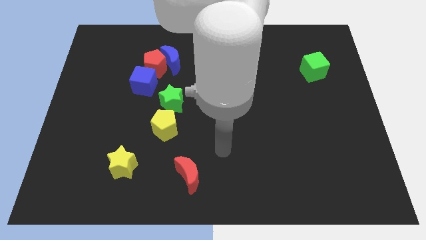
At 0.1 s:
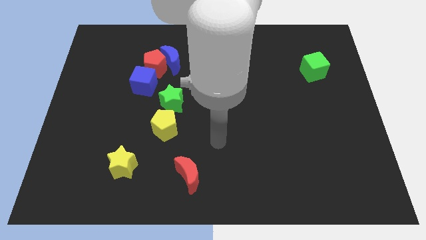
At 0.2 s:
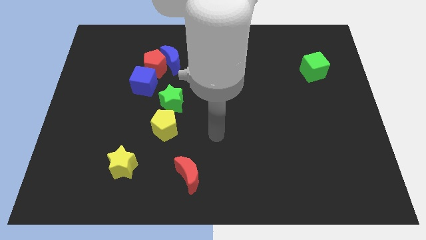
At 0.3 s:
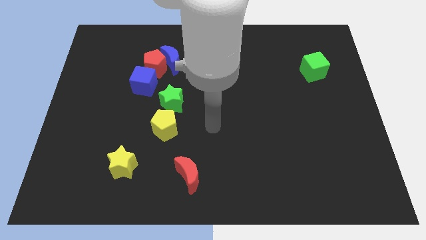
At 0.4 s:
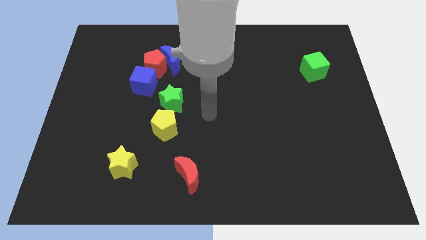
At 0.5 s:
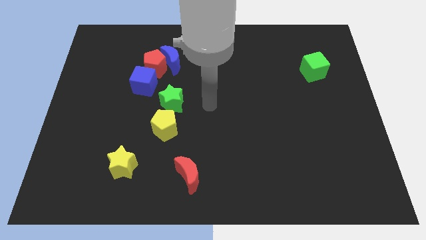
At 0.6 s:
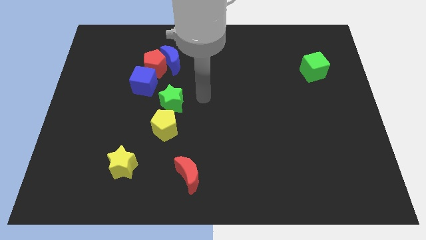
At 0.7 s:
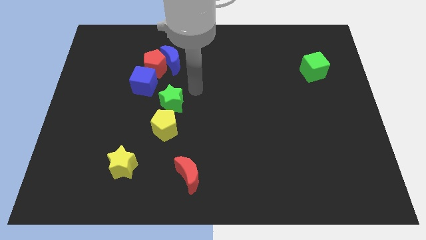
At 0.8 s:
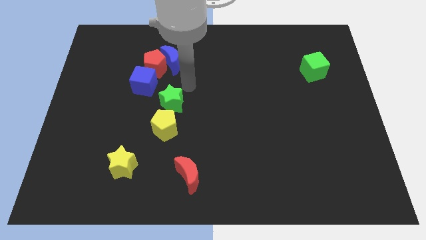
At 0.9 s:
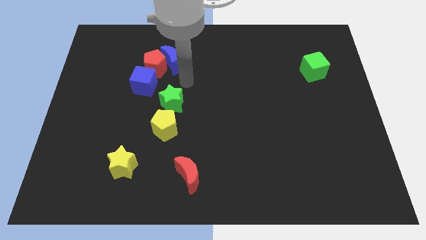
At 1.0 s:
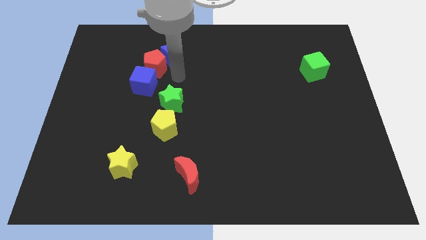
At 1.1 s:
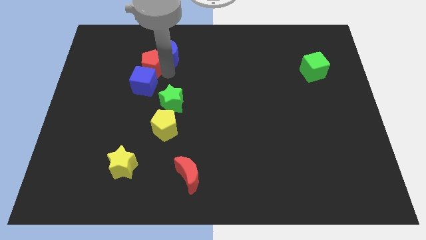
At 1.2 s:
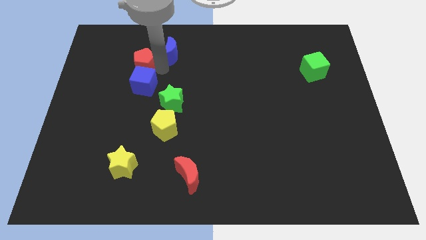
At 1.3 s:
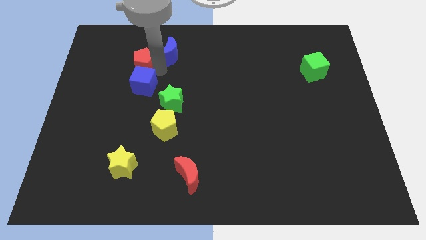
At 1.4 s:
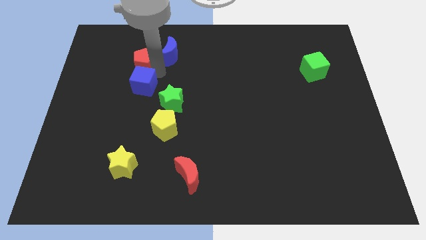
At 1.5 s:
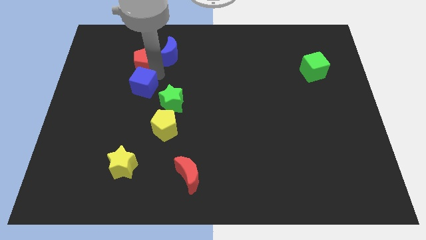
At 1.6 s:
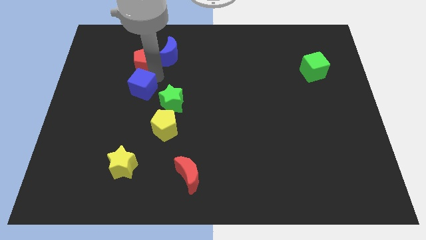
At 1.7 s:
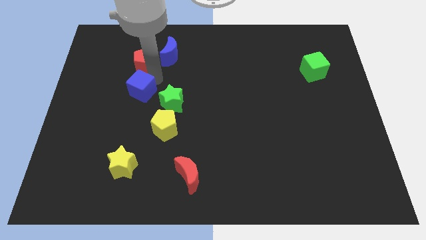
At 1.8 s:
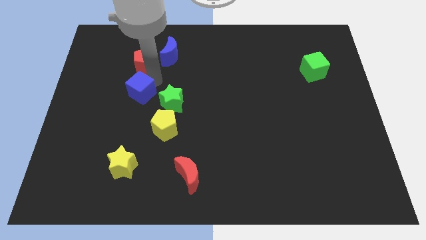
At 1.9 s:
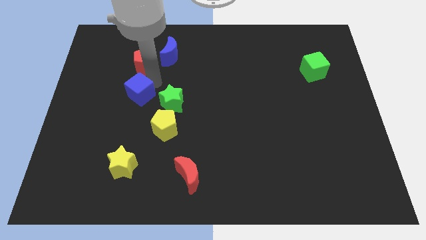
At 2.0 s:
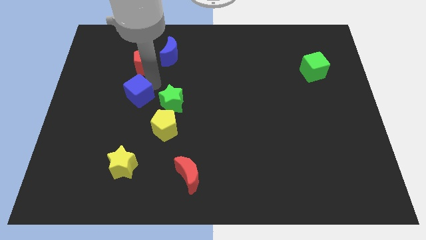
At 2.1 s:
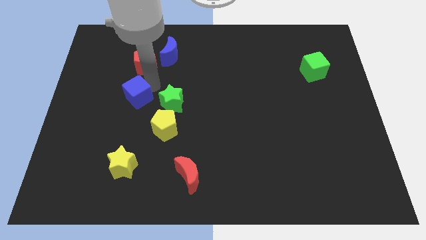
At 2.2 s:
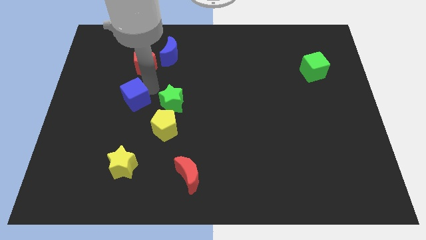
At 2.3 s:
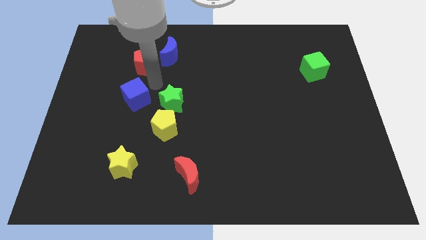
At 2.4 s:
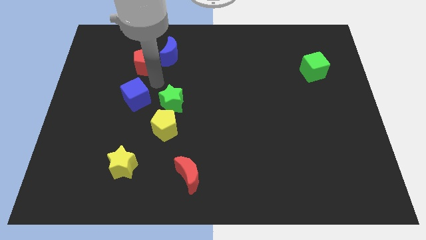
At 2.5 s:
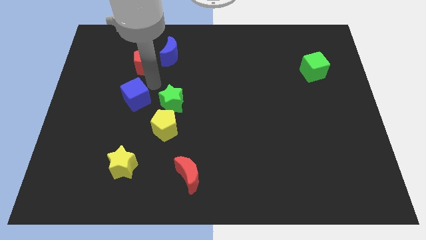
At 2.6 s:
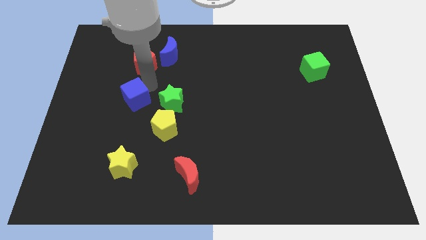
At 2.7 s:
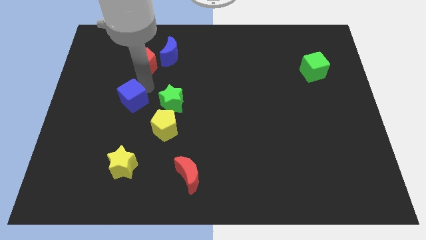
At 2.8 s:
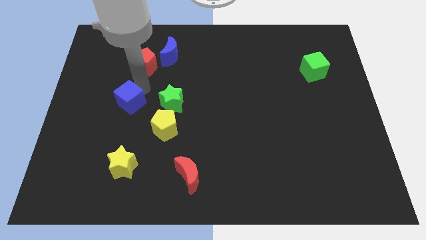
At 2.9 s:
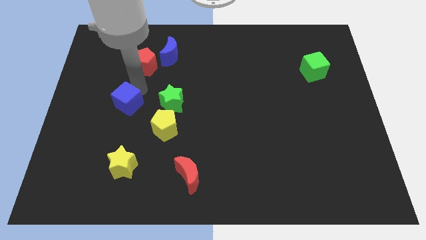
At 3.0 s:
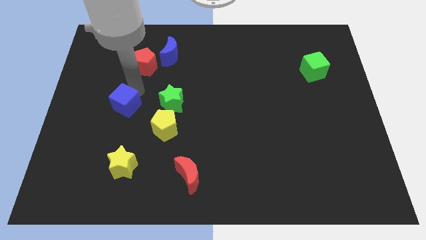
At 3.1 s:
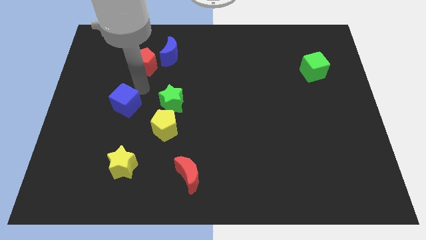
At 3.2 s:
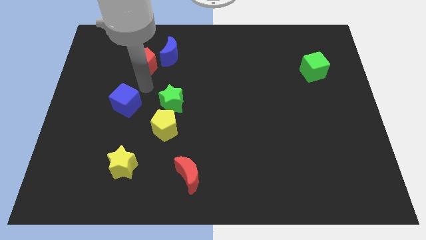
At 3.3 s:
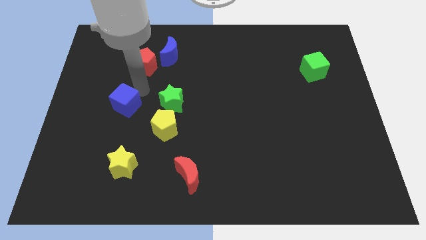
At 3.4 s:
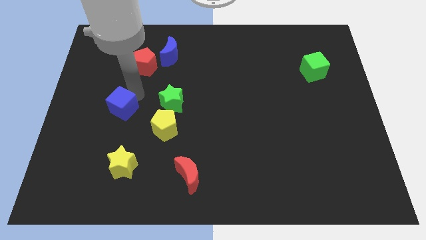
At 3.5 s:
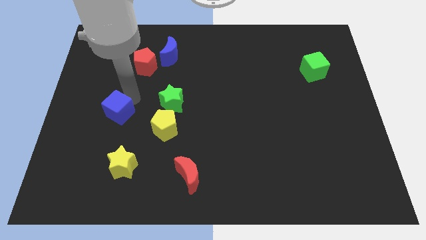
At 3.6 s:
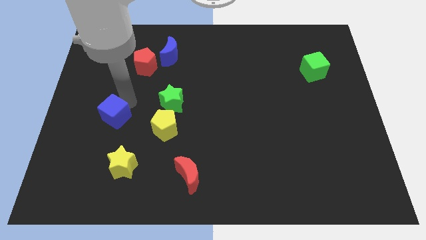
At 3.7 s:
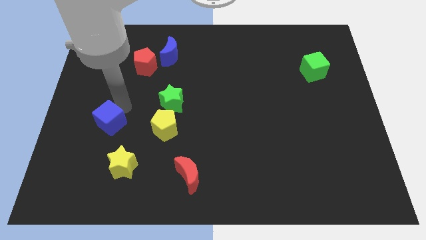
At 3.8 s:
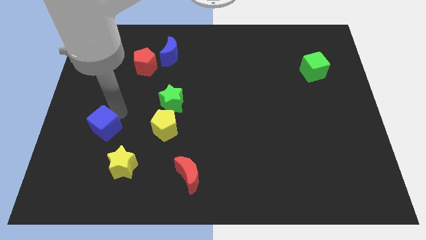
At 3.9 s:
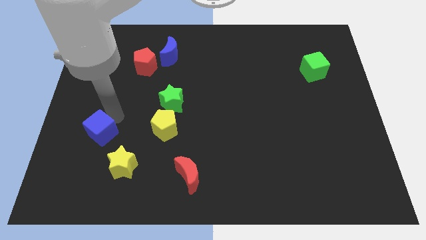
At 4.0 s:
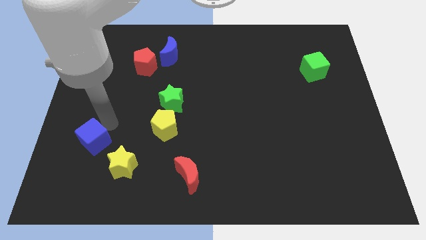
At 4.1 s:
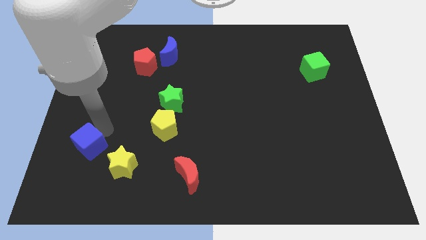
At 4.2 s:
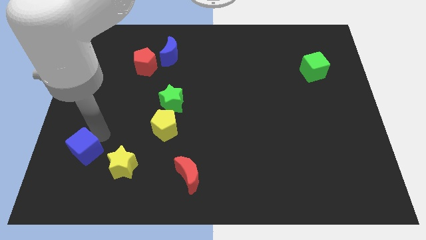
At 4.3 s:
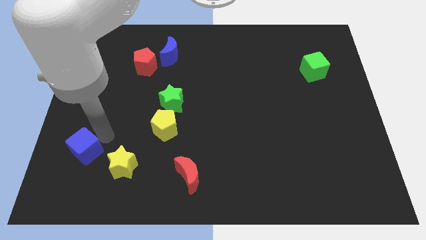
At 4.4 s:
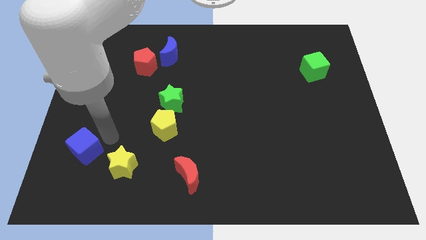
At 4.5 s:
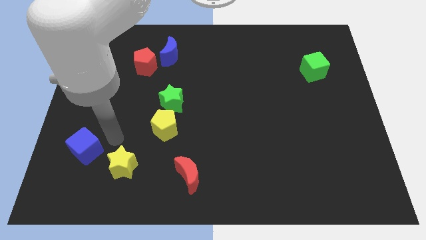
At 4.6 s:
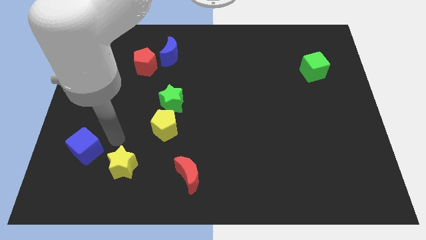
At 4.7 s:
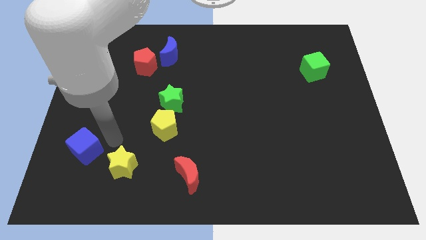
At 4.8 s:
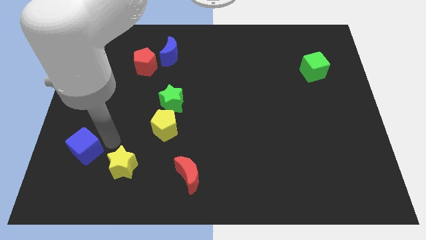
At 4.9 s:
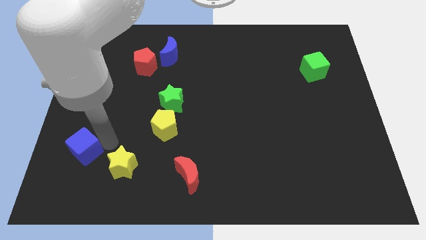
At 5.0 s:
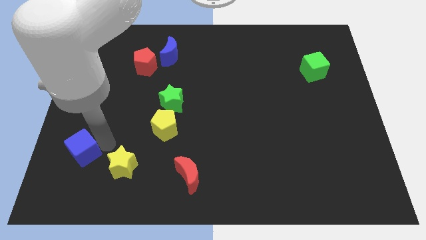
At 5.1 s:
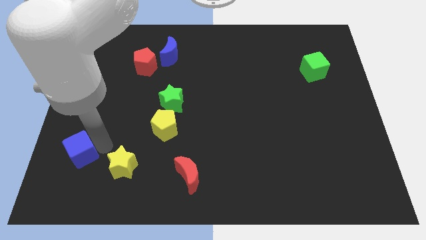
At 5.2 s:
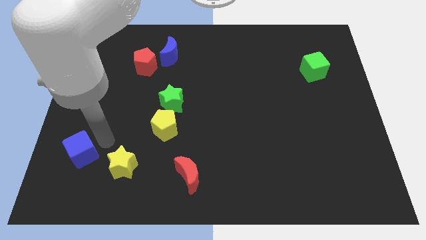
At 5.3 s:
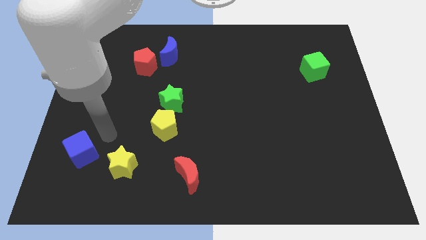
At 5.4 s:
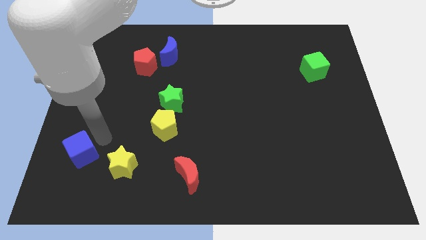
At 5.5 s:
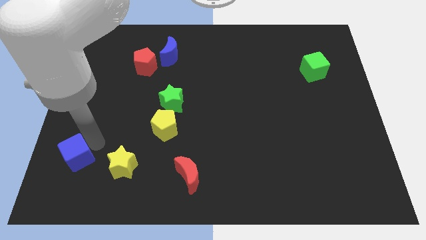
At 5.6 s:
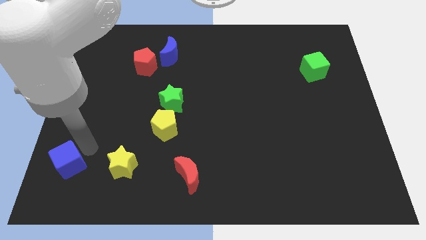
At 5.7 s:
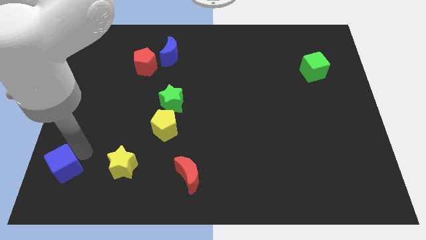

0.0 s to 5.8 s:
move the blue cube to the bottom left
